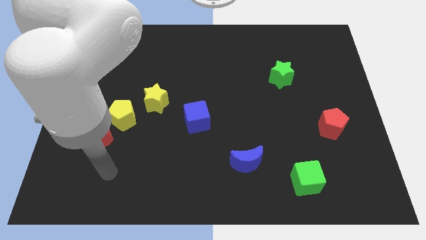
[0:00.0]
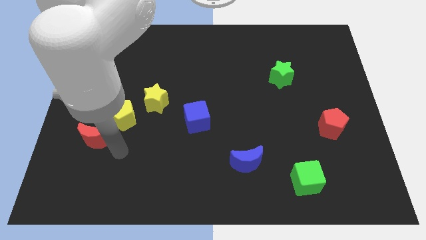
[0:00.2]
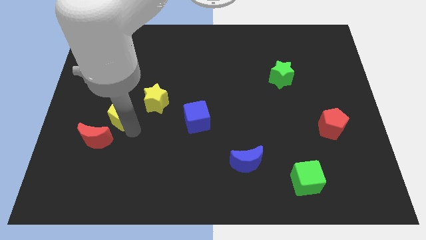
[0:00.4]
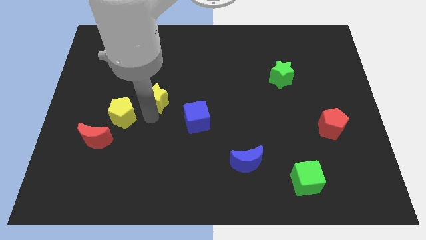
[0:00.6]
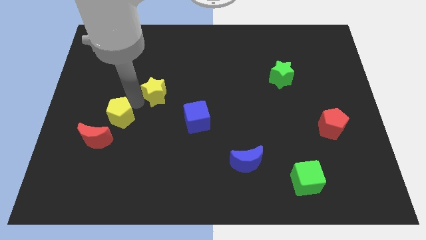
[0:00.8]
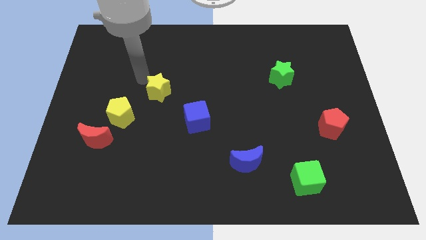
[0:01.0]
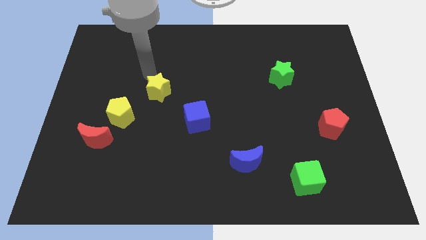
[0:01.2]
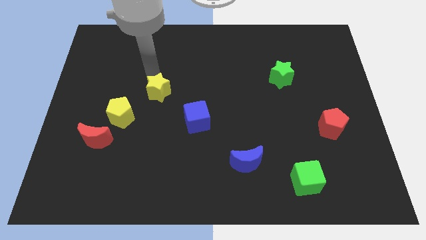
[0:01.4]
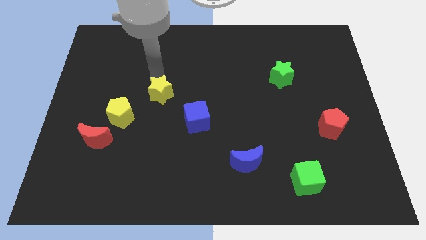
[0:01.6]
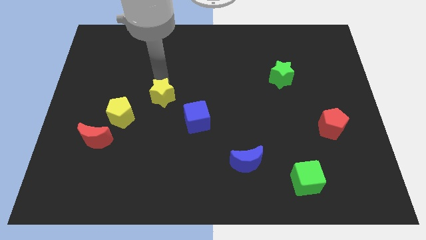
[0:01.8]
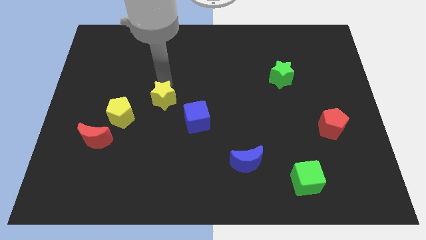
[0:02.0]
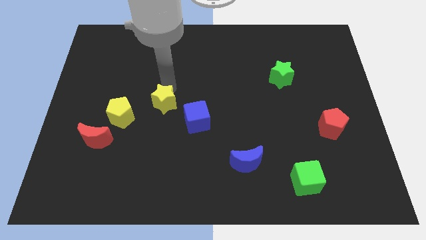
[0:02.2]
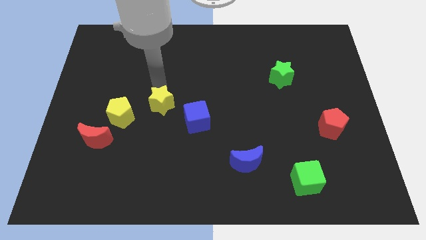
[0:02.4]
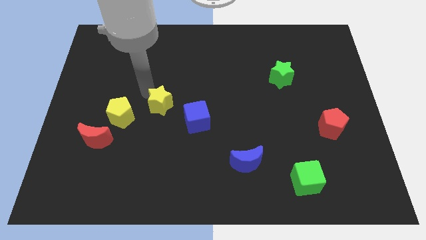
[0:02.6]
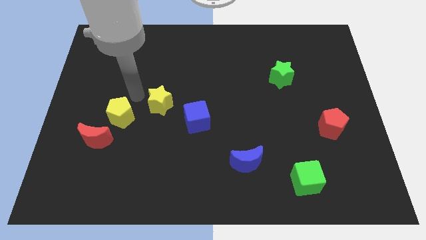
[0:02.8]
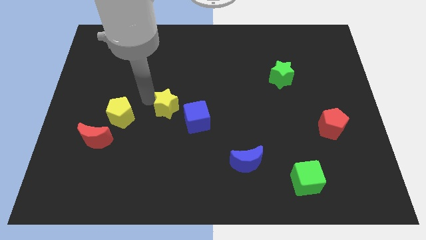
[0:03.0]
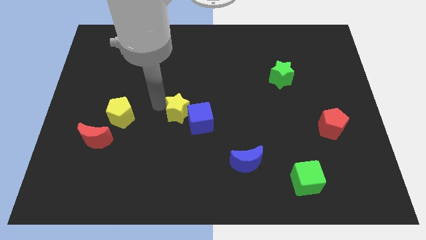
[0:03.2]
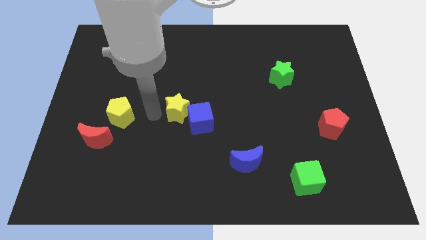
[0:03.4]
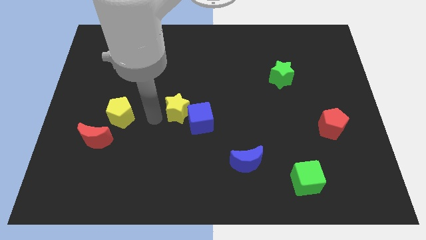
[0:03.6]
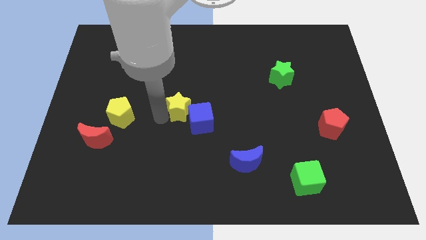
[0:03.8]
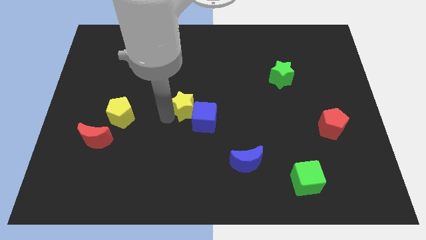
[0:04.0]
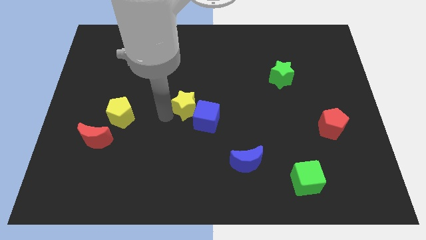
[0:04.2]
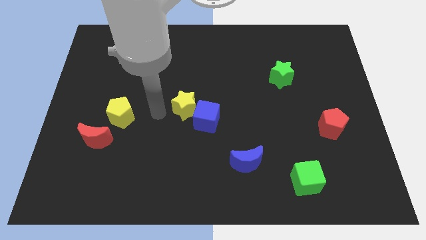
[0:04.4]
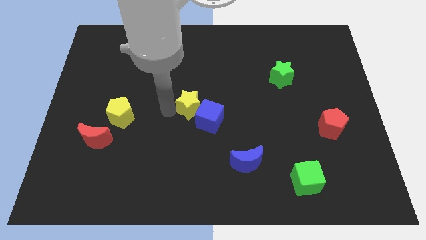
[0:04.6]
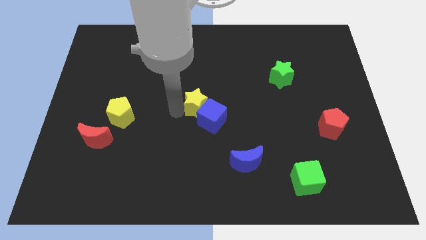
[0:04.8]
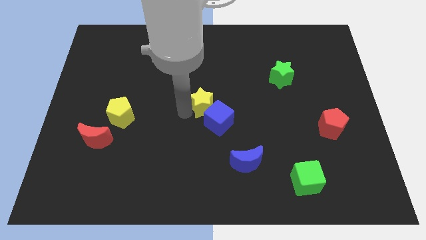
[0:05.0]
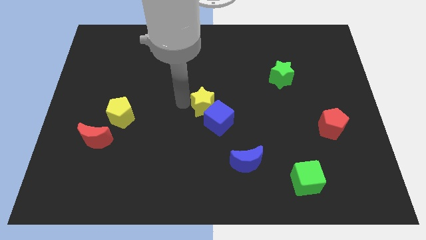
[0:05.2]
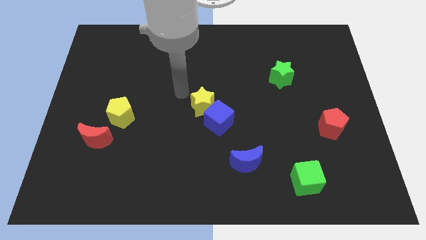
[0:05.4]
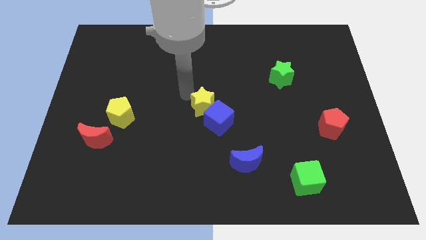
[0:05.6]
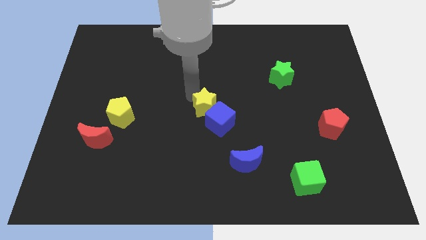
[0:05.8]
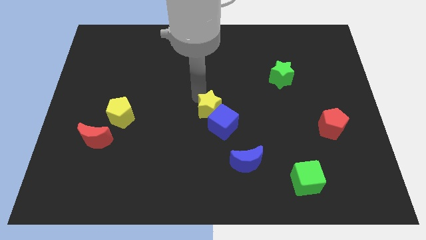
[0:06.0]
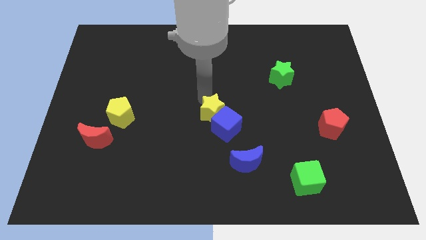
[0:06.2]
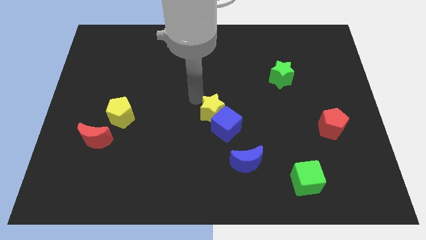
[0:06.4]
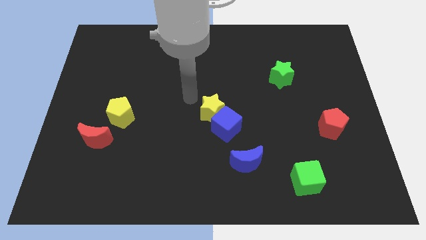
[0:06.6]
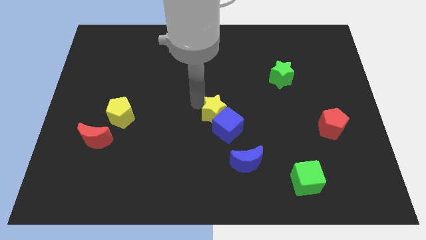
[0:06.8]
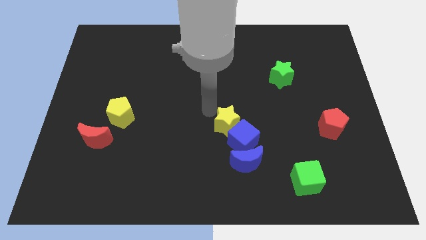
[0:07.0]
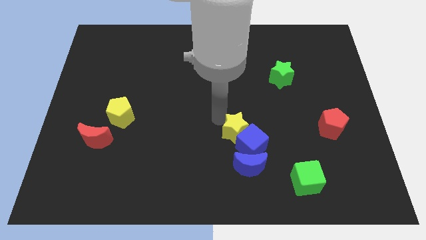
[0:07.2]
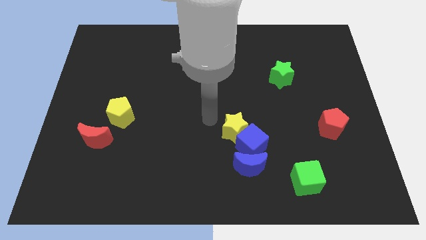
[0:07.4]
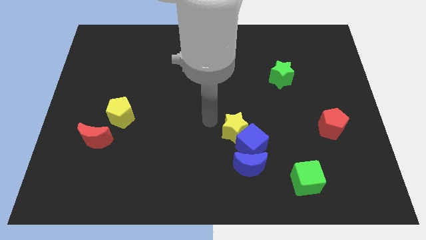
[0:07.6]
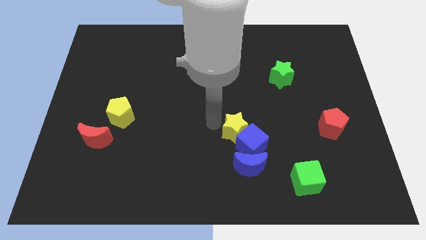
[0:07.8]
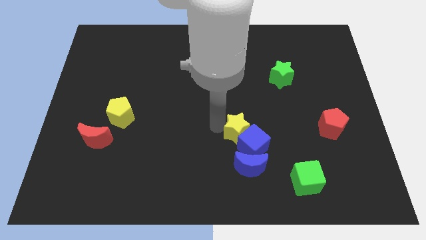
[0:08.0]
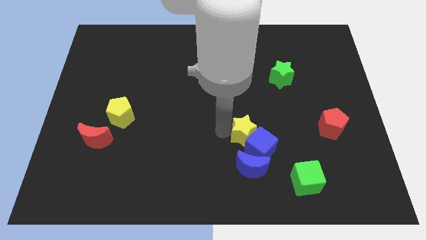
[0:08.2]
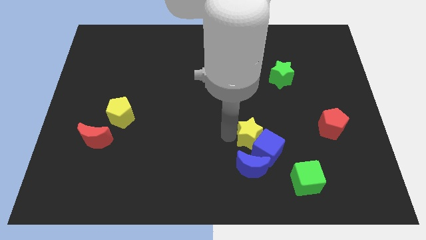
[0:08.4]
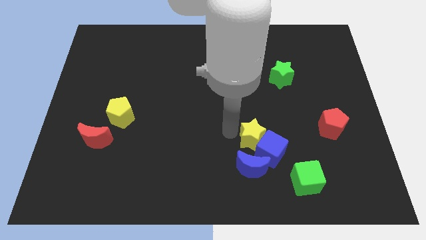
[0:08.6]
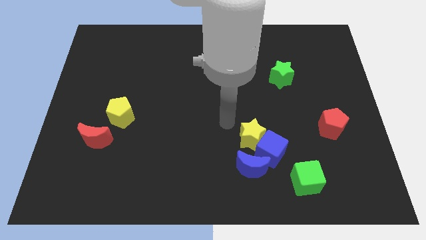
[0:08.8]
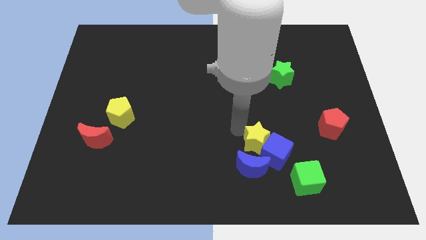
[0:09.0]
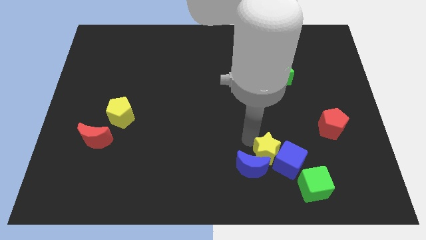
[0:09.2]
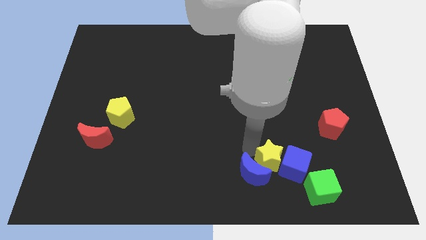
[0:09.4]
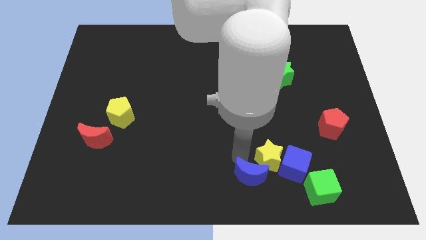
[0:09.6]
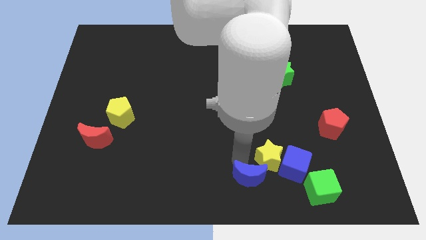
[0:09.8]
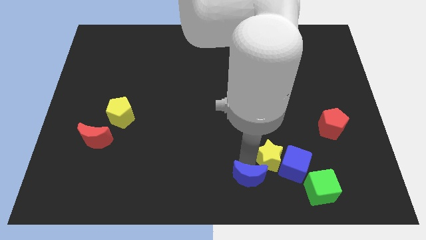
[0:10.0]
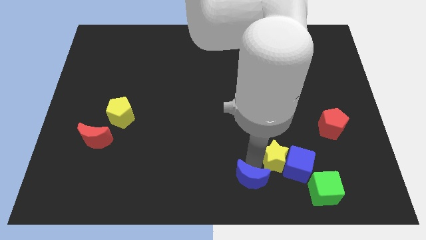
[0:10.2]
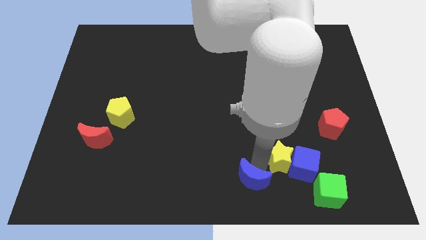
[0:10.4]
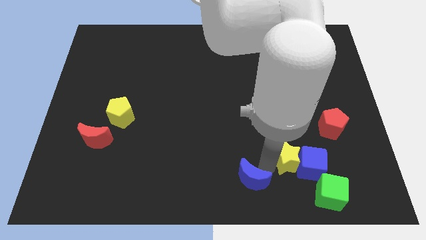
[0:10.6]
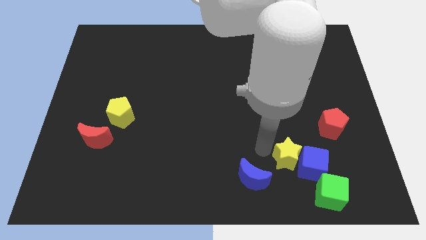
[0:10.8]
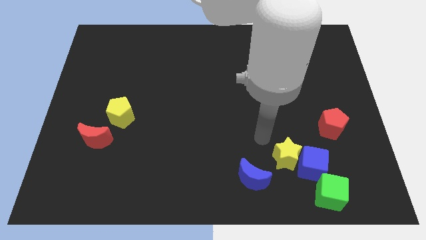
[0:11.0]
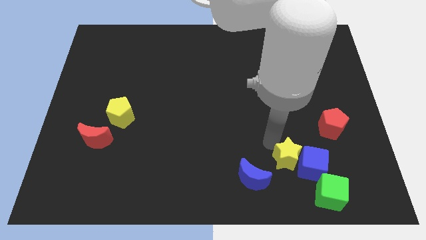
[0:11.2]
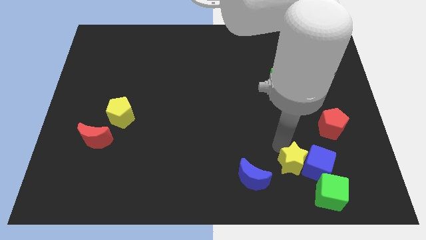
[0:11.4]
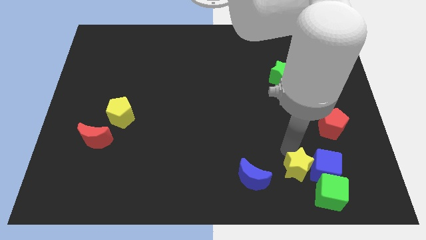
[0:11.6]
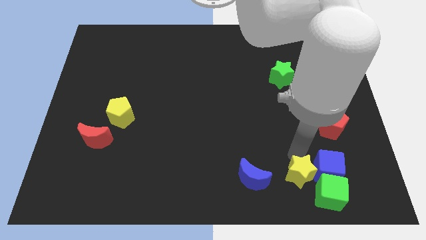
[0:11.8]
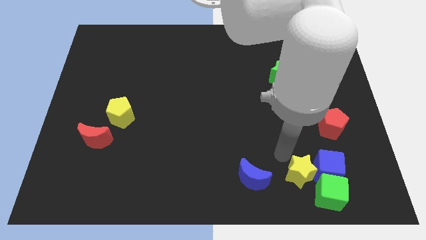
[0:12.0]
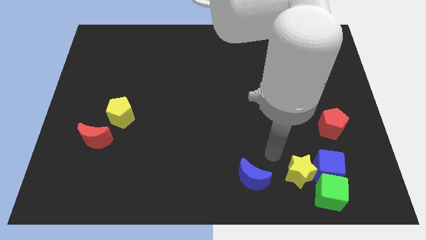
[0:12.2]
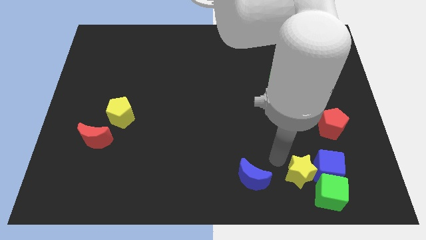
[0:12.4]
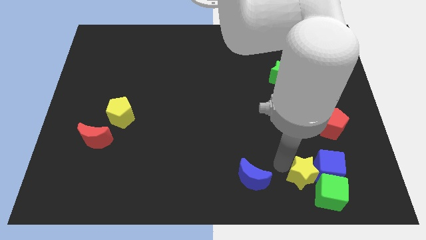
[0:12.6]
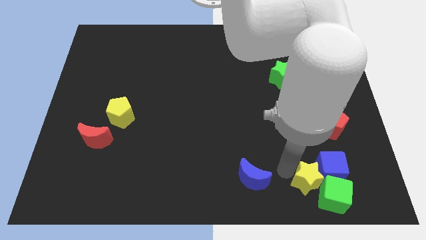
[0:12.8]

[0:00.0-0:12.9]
slide the yellow star close to the green cube

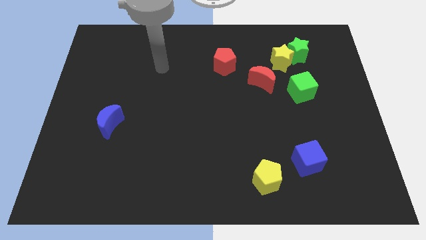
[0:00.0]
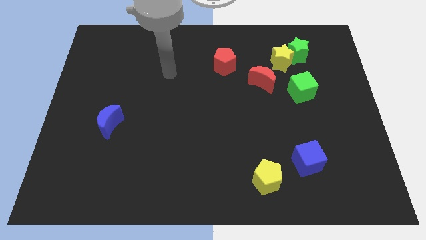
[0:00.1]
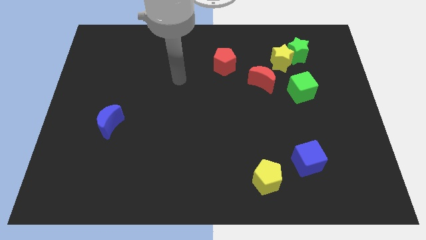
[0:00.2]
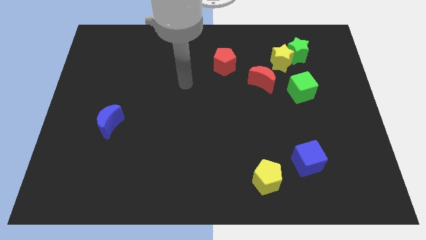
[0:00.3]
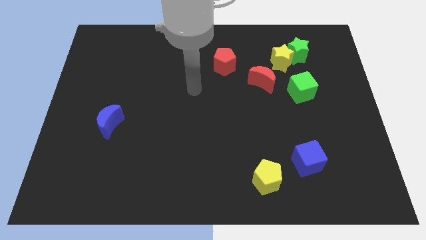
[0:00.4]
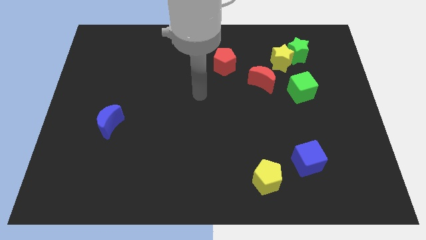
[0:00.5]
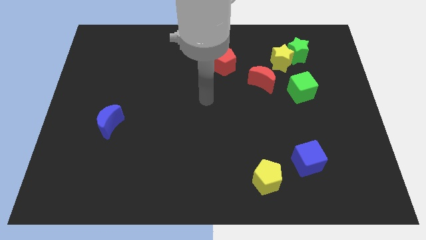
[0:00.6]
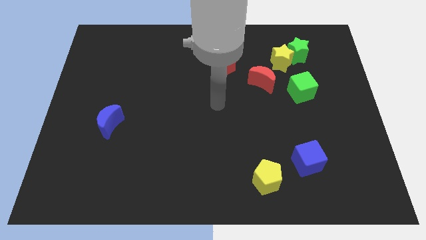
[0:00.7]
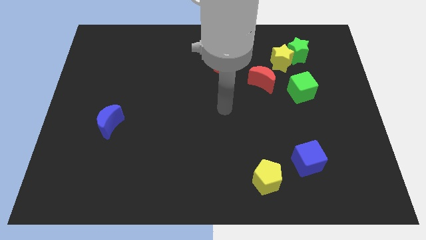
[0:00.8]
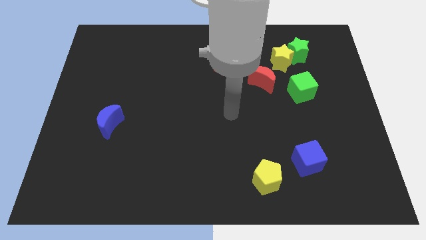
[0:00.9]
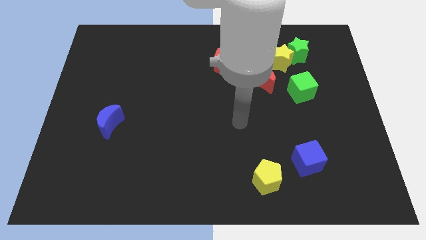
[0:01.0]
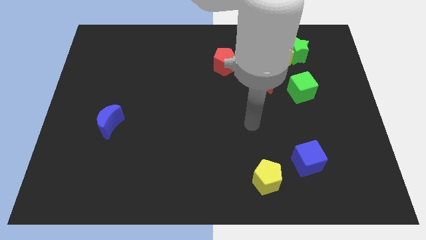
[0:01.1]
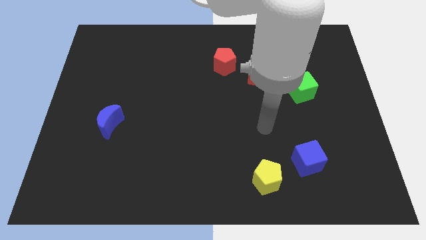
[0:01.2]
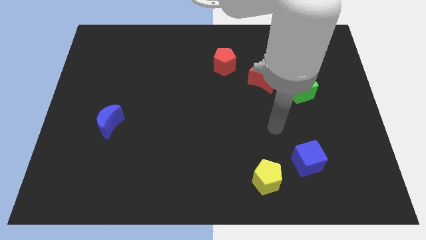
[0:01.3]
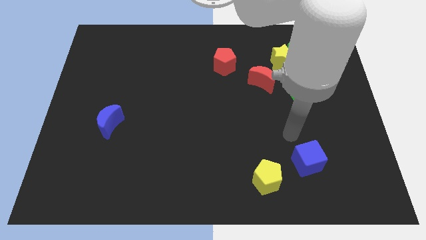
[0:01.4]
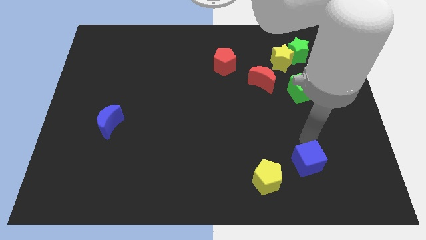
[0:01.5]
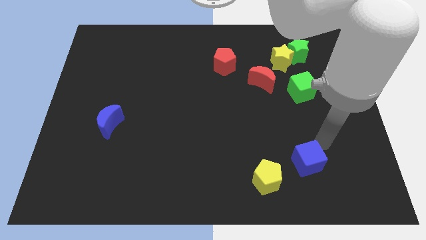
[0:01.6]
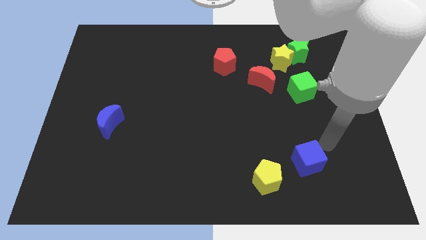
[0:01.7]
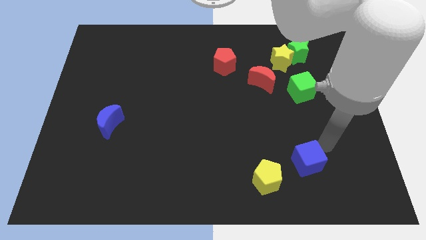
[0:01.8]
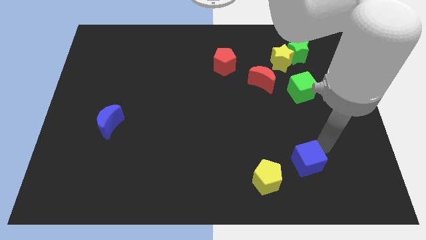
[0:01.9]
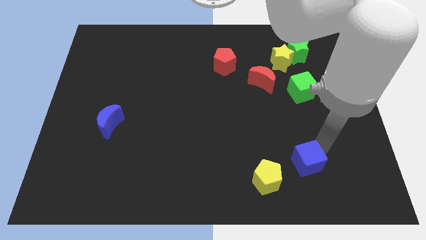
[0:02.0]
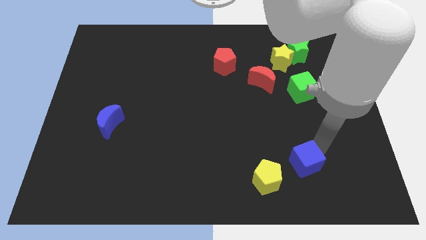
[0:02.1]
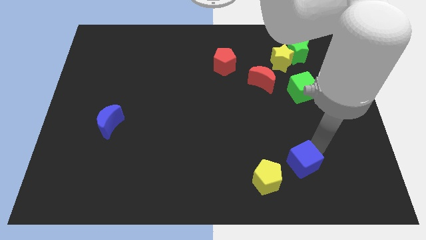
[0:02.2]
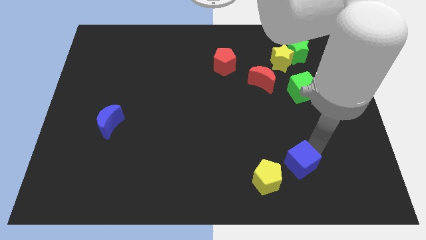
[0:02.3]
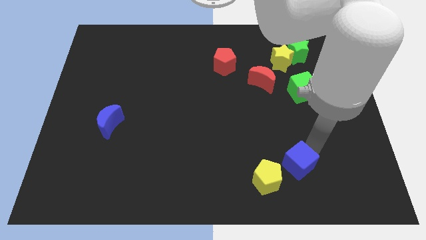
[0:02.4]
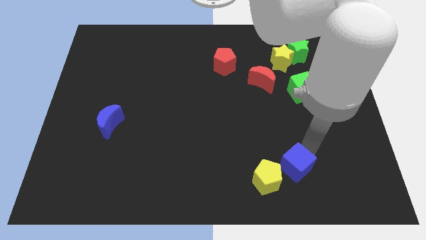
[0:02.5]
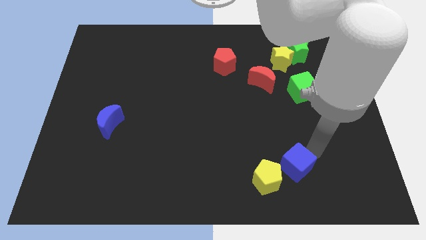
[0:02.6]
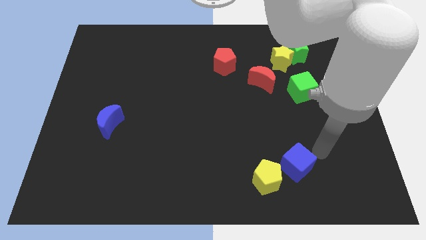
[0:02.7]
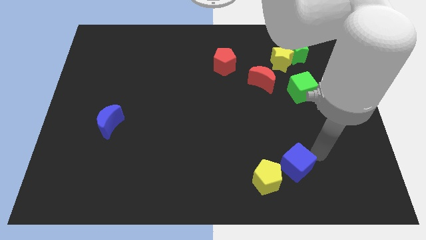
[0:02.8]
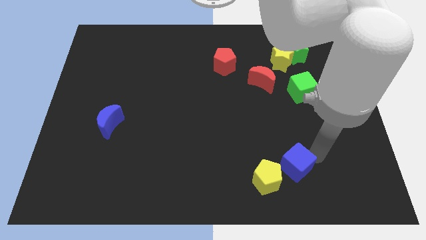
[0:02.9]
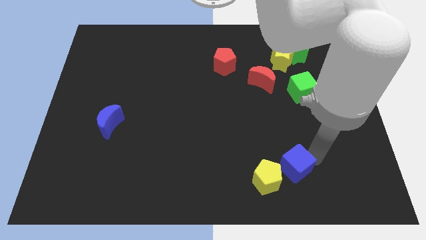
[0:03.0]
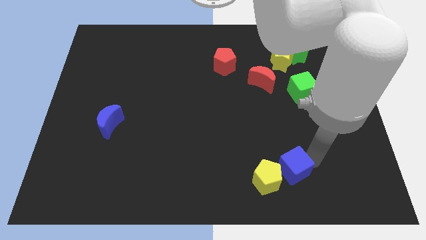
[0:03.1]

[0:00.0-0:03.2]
put the blue cube close to the yellow pentagon
